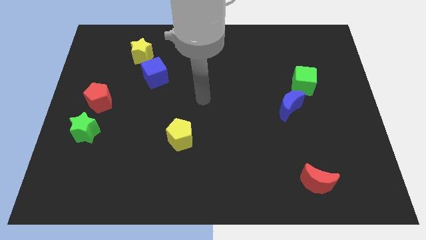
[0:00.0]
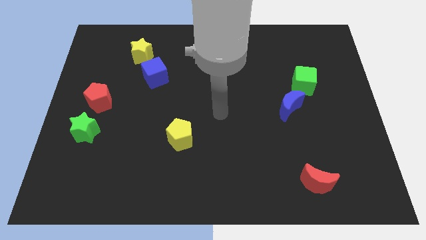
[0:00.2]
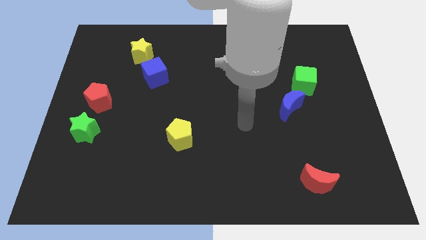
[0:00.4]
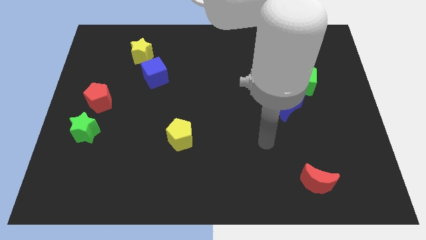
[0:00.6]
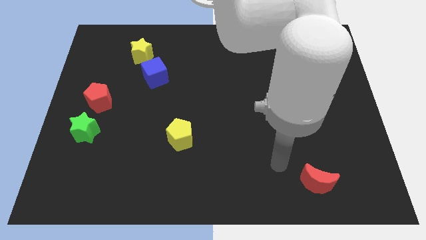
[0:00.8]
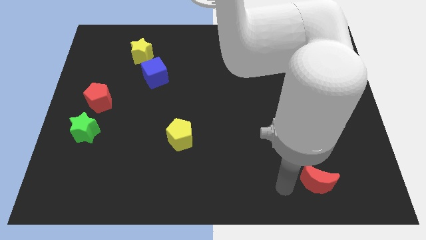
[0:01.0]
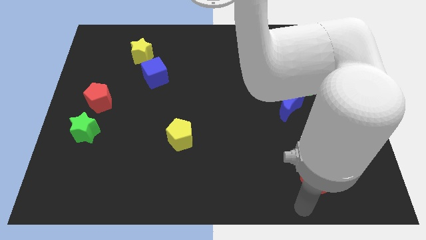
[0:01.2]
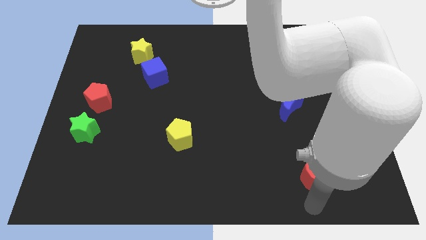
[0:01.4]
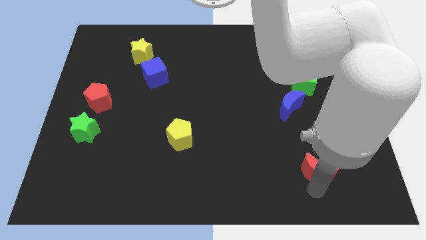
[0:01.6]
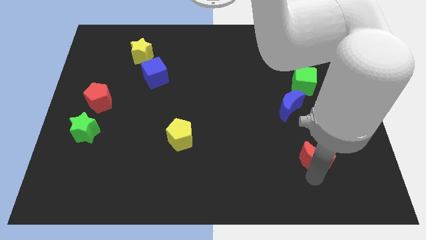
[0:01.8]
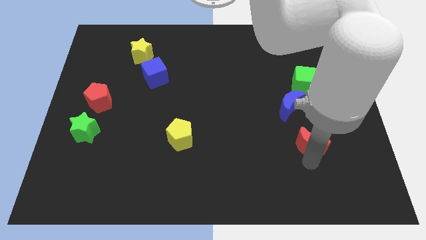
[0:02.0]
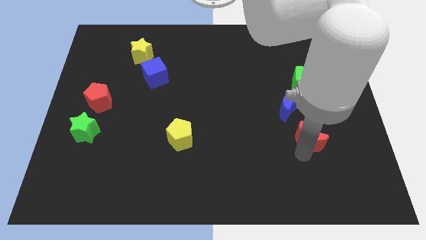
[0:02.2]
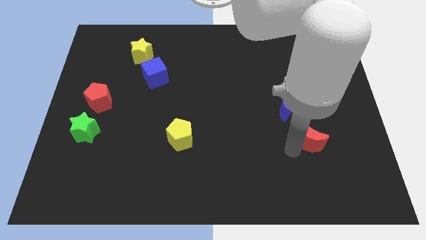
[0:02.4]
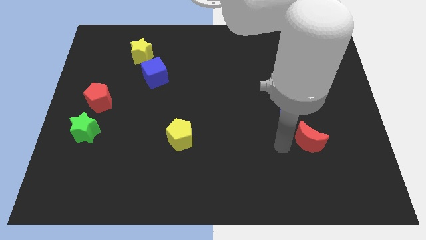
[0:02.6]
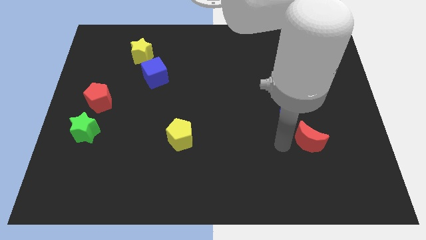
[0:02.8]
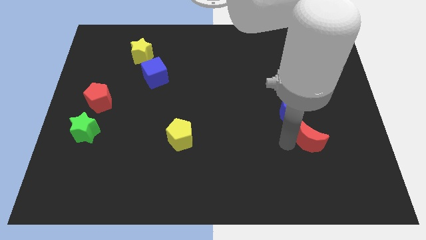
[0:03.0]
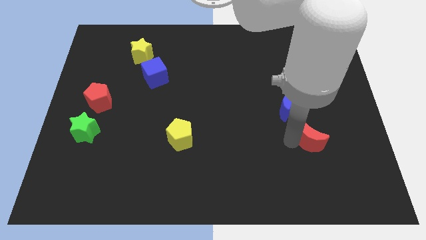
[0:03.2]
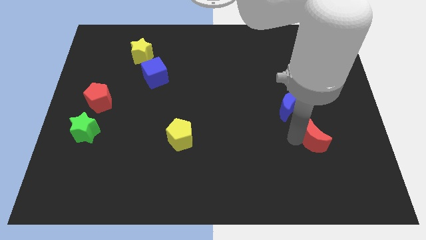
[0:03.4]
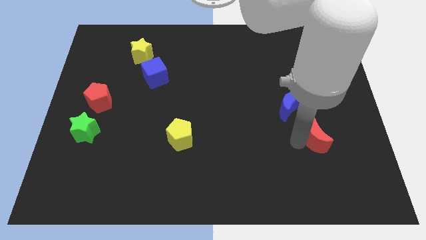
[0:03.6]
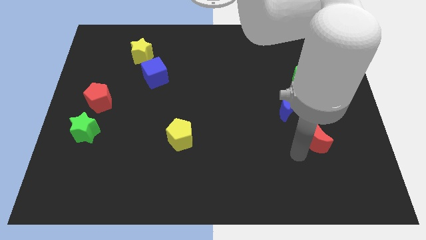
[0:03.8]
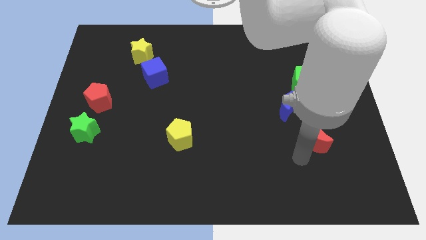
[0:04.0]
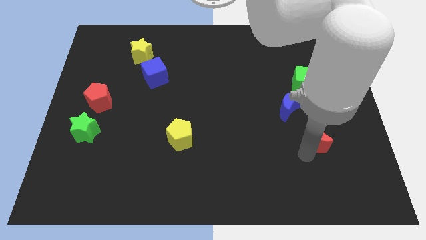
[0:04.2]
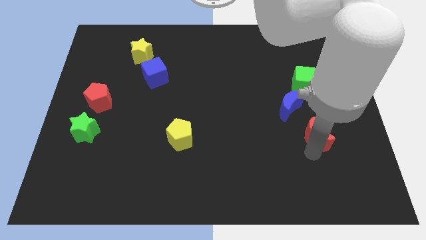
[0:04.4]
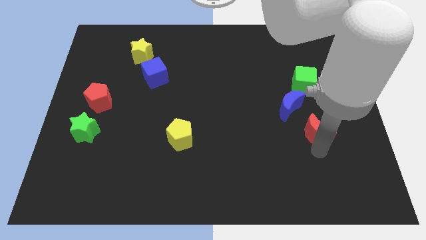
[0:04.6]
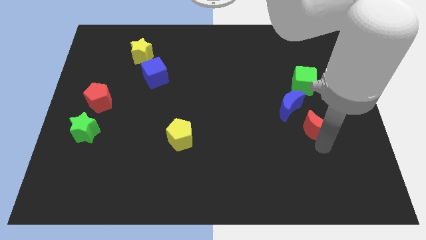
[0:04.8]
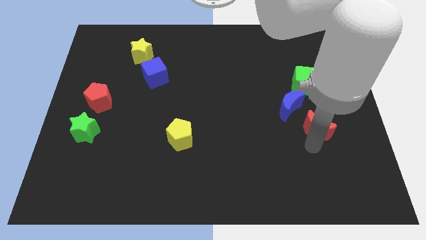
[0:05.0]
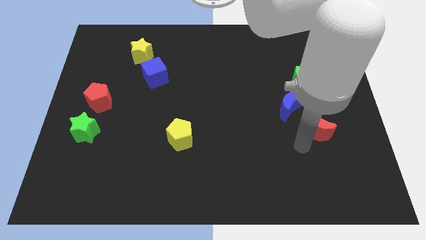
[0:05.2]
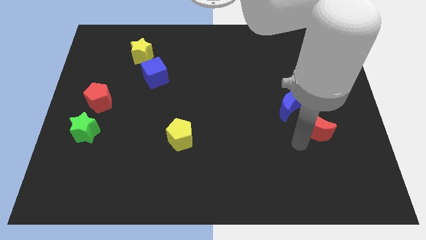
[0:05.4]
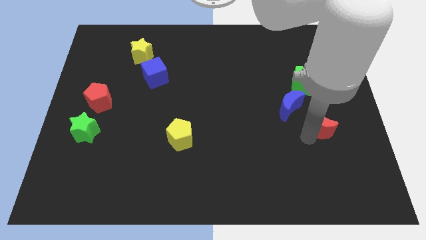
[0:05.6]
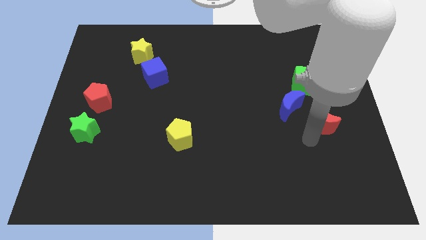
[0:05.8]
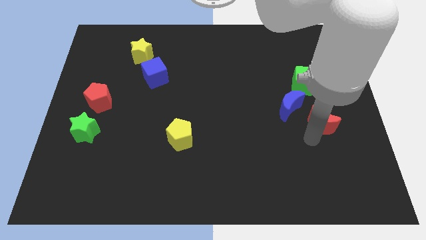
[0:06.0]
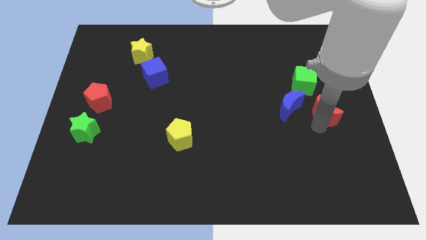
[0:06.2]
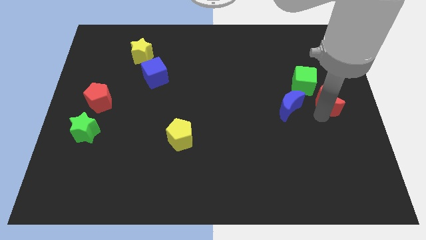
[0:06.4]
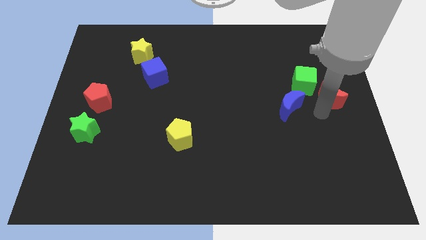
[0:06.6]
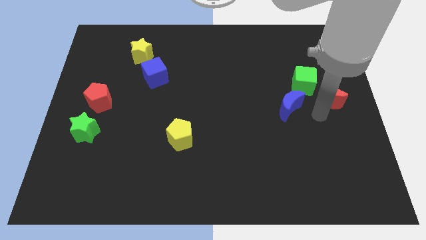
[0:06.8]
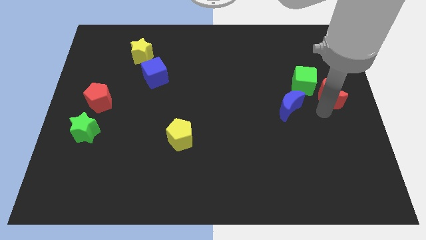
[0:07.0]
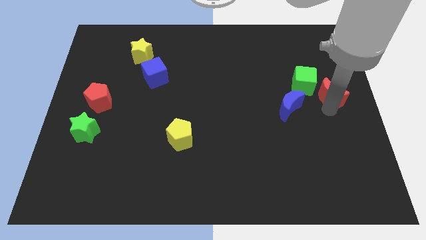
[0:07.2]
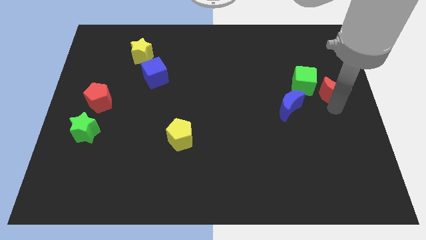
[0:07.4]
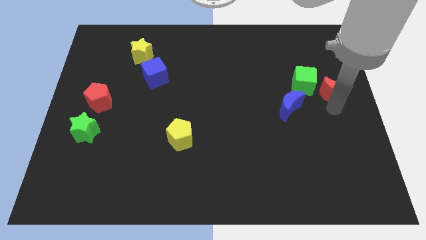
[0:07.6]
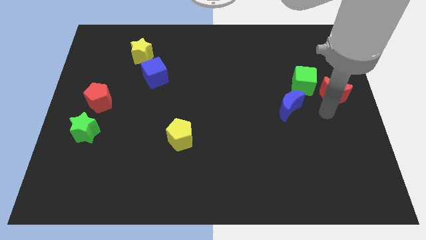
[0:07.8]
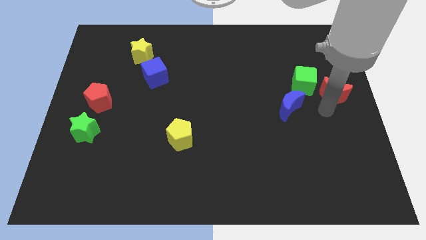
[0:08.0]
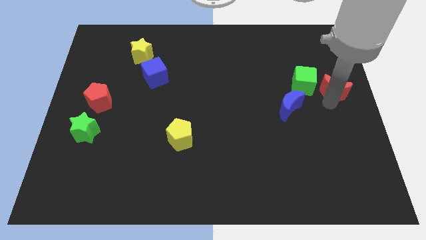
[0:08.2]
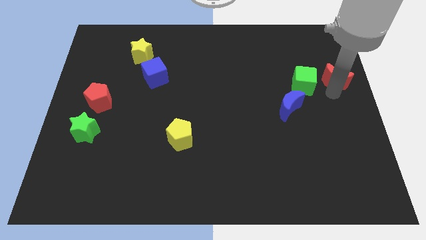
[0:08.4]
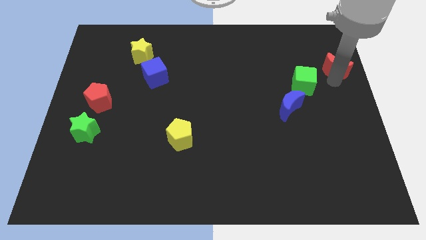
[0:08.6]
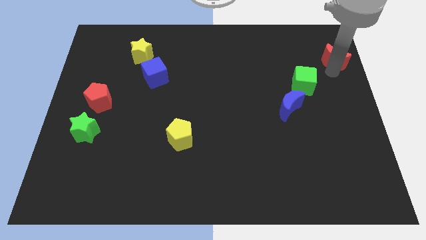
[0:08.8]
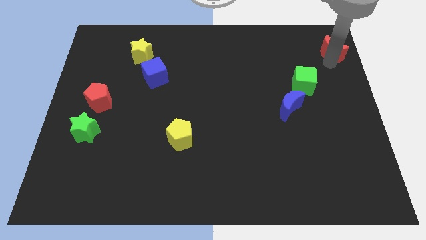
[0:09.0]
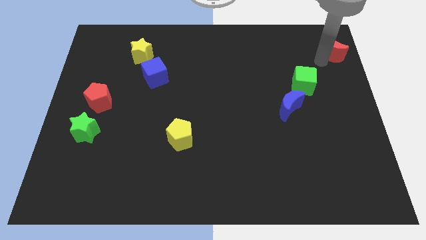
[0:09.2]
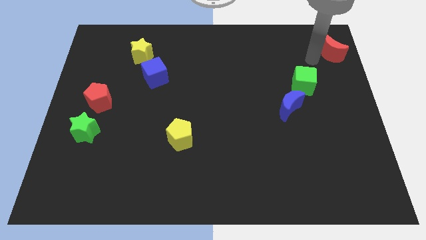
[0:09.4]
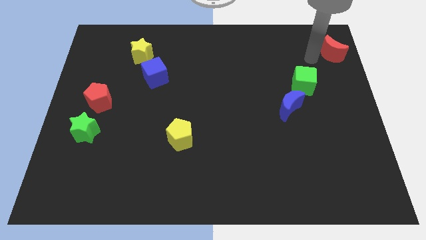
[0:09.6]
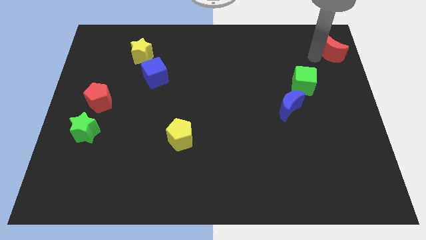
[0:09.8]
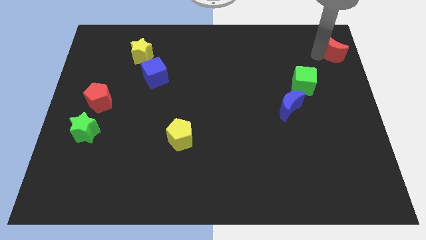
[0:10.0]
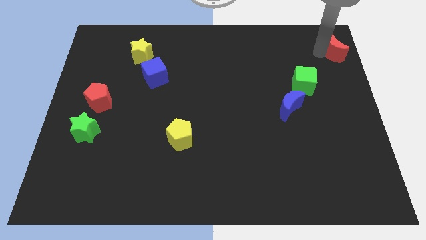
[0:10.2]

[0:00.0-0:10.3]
move the red moon to the top right of the board

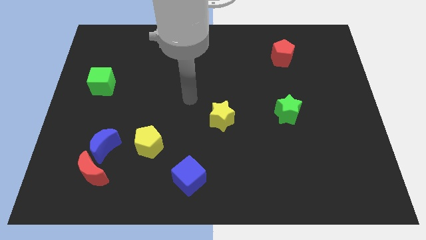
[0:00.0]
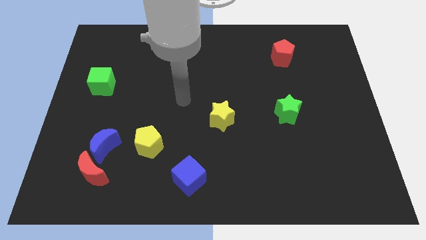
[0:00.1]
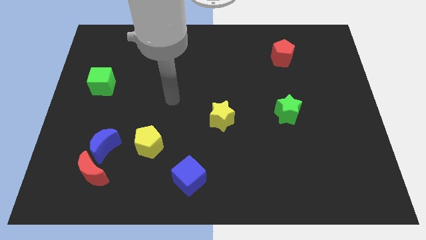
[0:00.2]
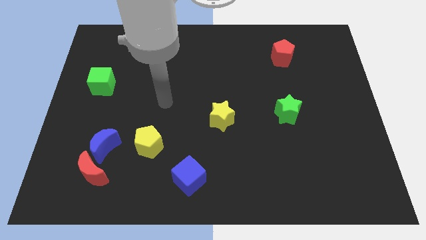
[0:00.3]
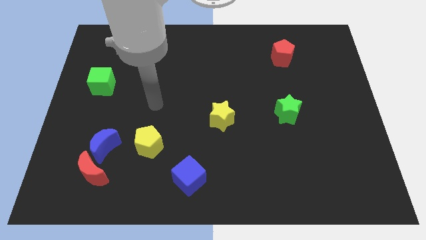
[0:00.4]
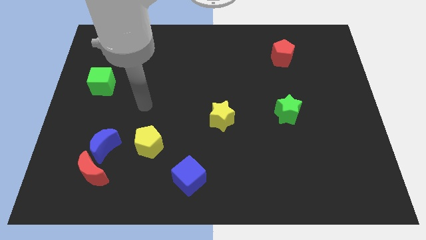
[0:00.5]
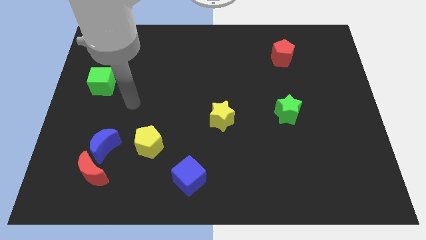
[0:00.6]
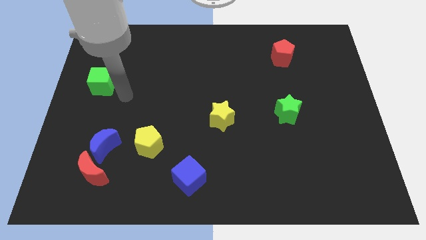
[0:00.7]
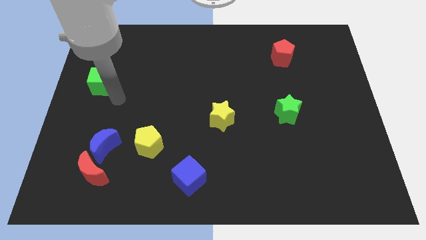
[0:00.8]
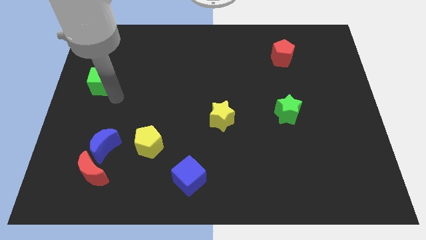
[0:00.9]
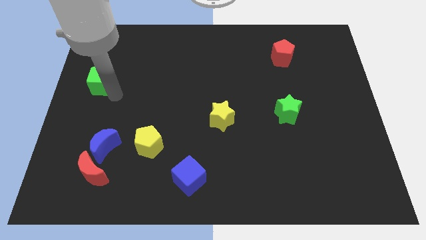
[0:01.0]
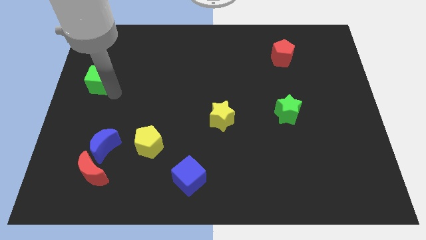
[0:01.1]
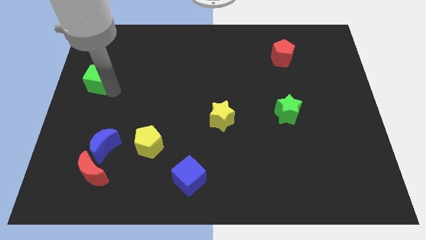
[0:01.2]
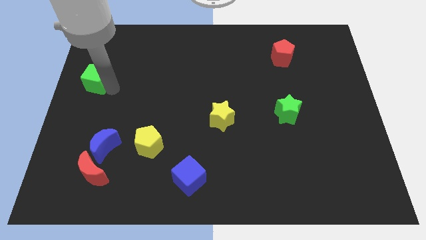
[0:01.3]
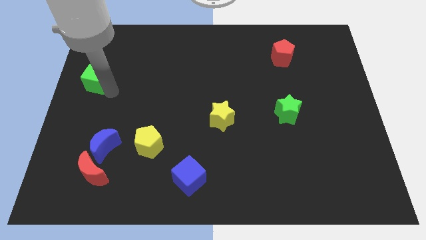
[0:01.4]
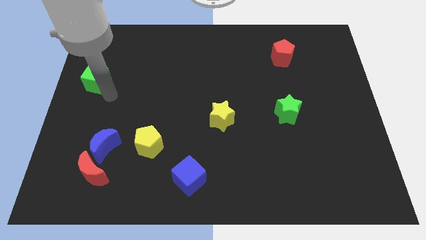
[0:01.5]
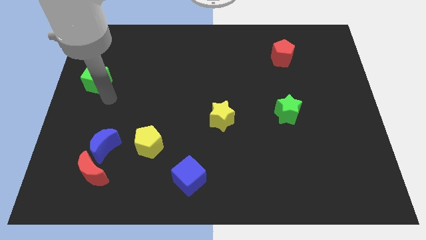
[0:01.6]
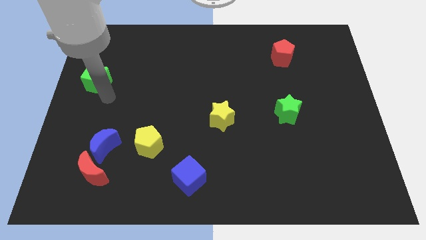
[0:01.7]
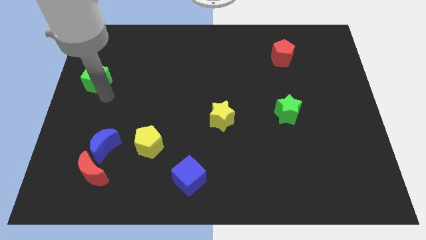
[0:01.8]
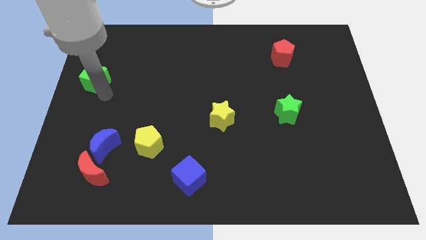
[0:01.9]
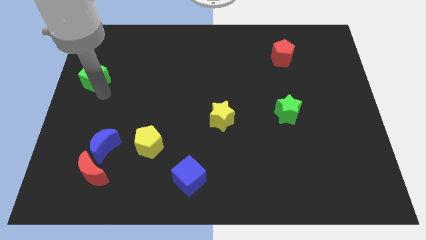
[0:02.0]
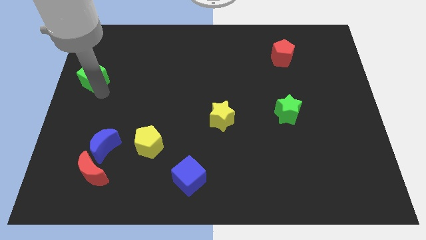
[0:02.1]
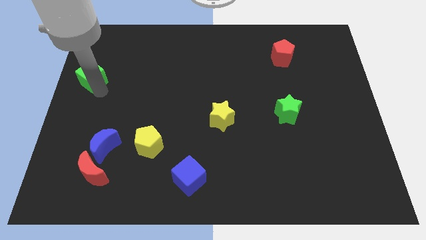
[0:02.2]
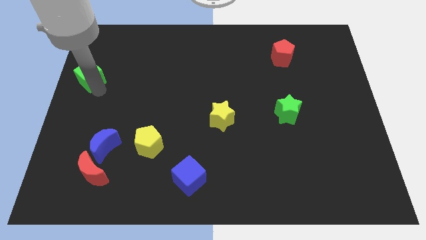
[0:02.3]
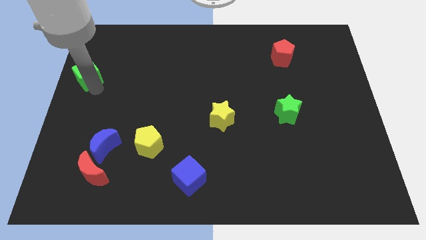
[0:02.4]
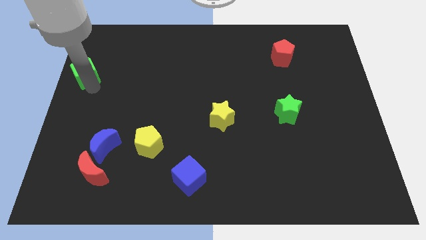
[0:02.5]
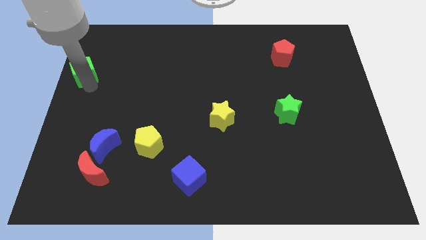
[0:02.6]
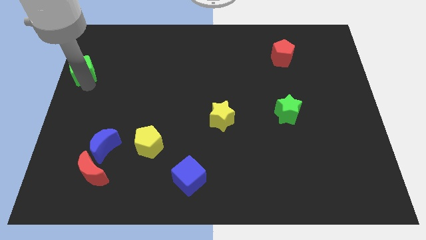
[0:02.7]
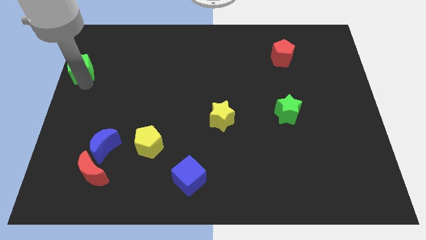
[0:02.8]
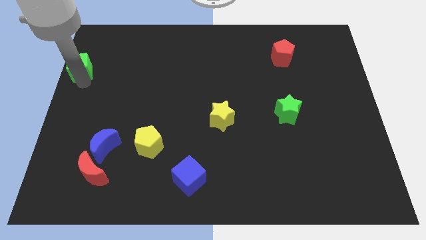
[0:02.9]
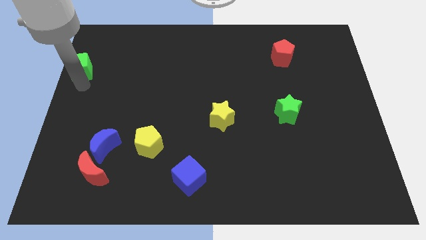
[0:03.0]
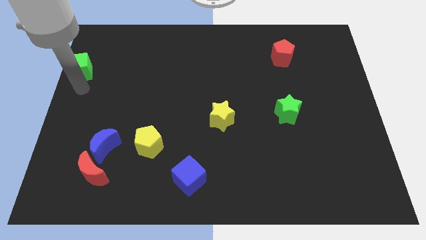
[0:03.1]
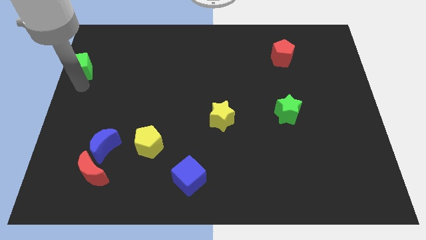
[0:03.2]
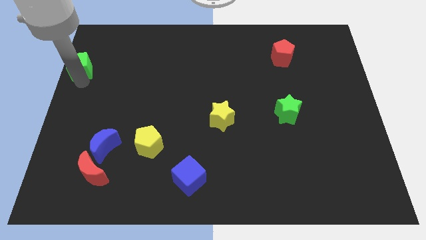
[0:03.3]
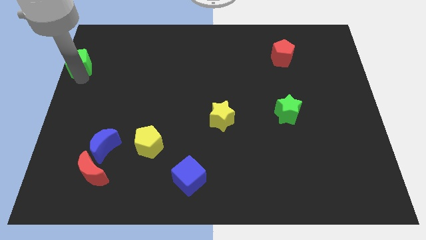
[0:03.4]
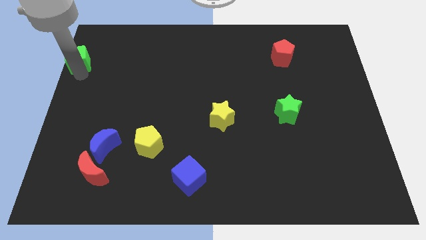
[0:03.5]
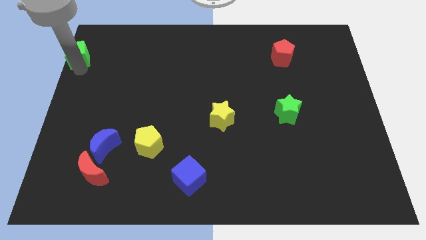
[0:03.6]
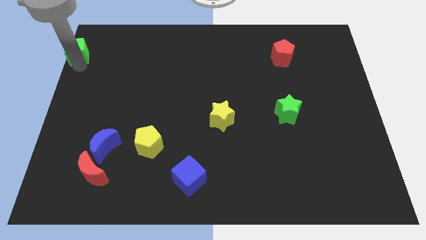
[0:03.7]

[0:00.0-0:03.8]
slide the green cube to the top left
